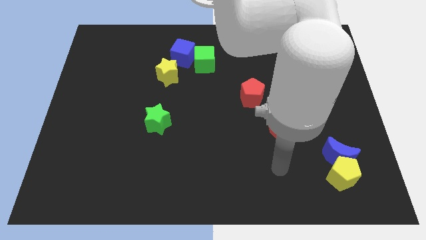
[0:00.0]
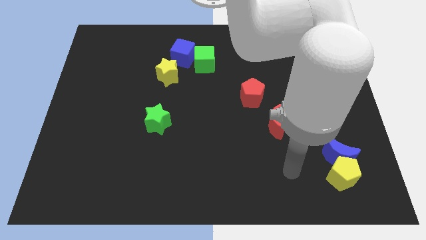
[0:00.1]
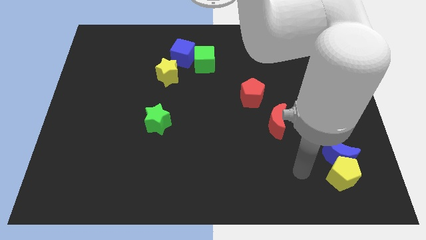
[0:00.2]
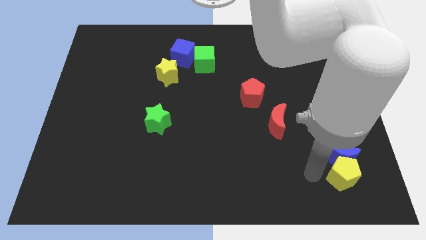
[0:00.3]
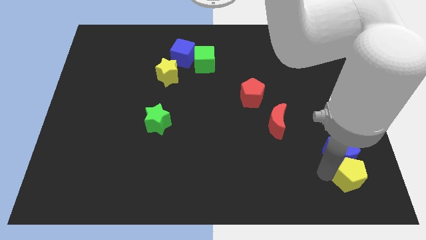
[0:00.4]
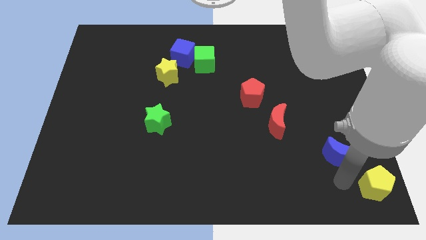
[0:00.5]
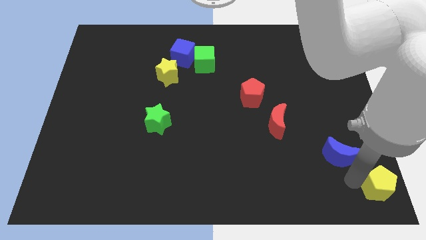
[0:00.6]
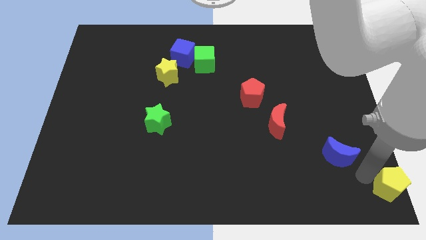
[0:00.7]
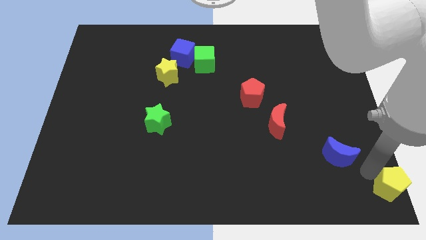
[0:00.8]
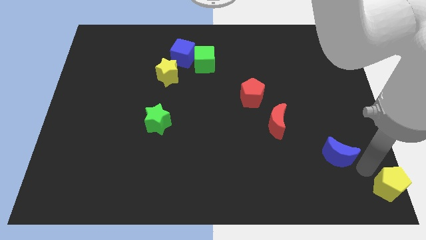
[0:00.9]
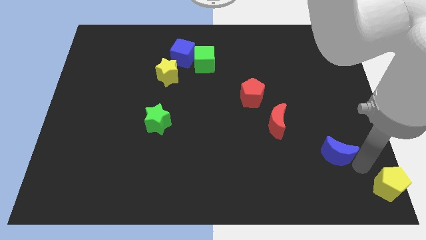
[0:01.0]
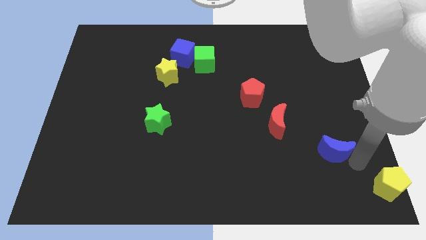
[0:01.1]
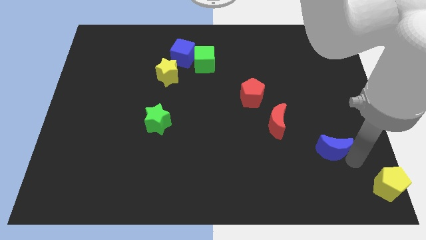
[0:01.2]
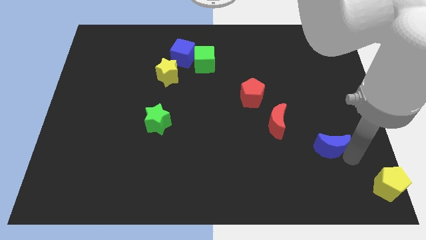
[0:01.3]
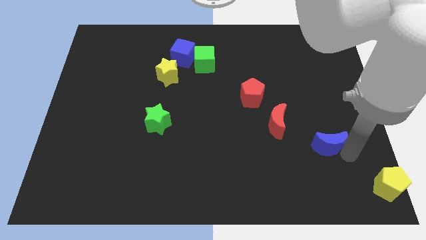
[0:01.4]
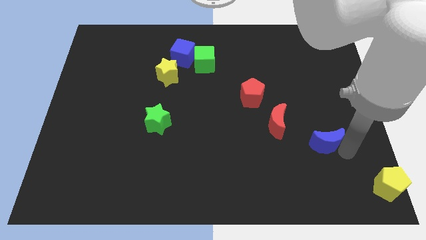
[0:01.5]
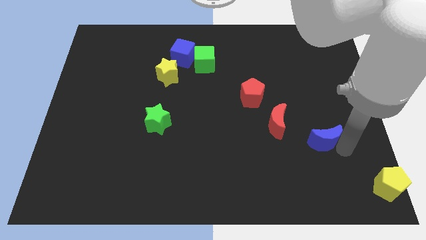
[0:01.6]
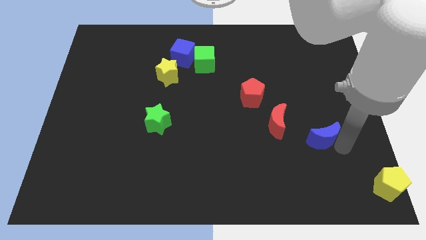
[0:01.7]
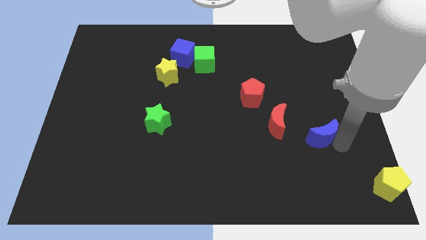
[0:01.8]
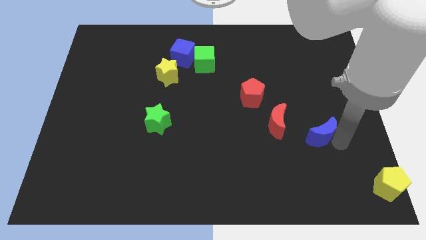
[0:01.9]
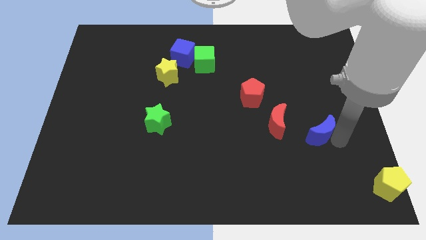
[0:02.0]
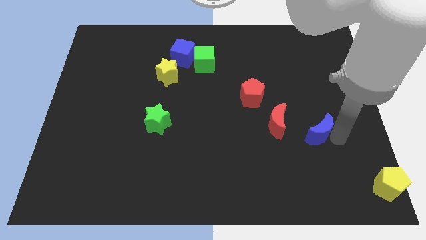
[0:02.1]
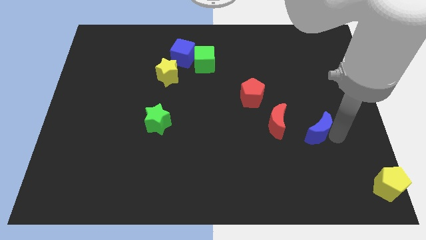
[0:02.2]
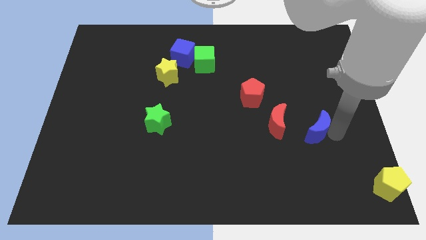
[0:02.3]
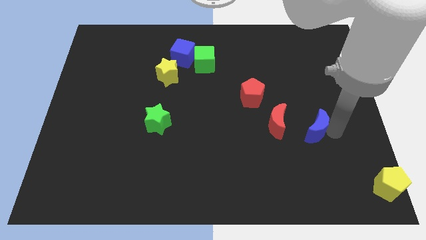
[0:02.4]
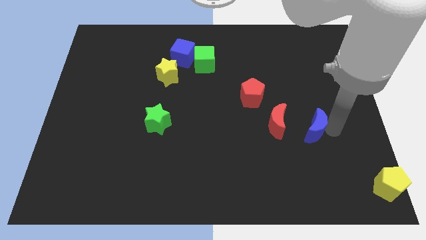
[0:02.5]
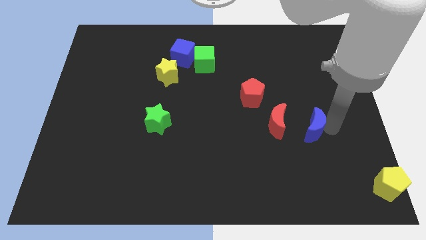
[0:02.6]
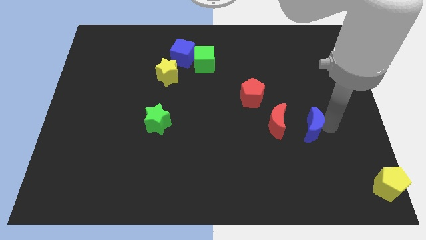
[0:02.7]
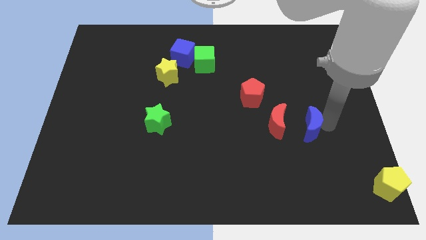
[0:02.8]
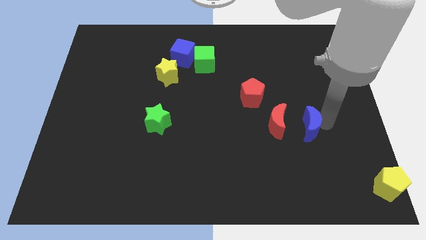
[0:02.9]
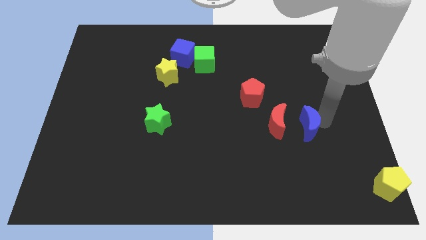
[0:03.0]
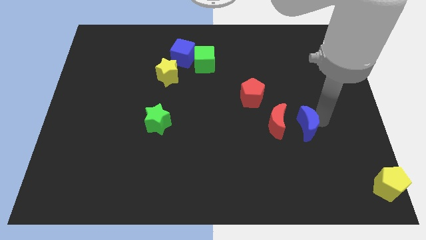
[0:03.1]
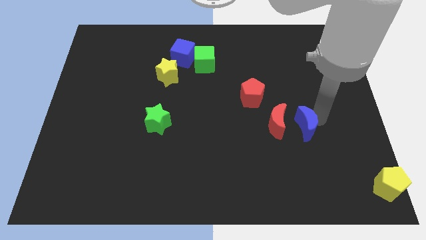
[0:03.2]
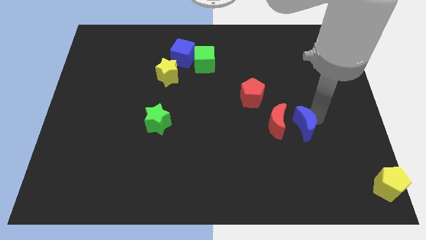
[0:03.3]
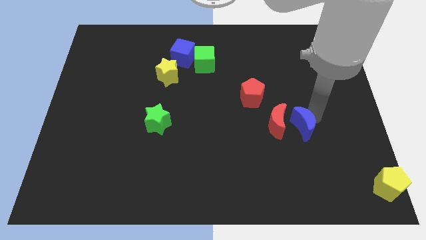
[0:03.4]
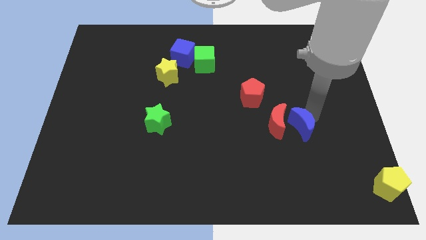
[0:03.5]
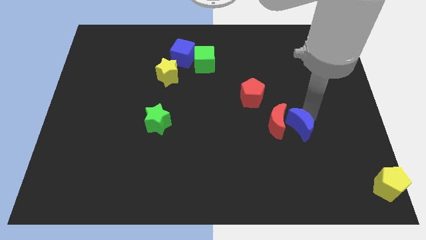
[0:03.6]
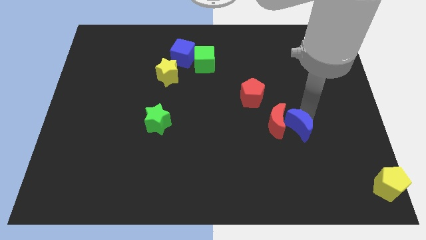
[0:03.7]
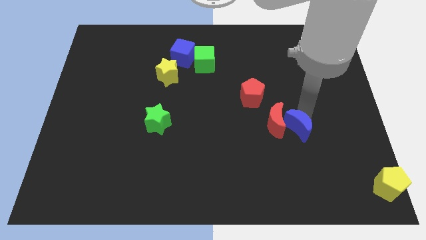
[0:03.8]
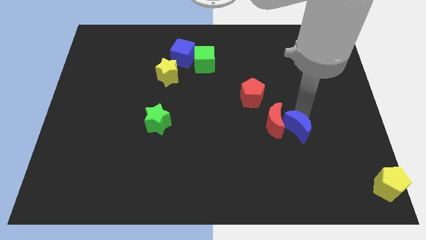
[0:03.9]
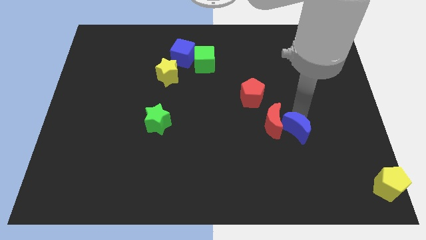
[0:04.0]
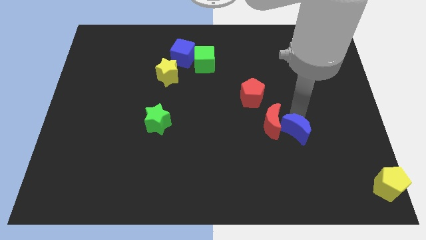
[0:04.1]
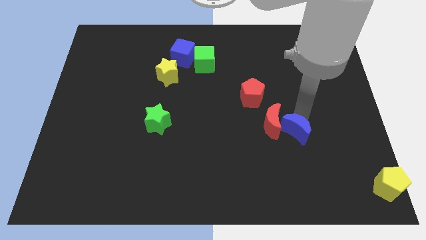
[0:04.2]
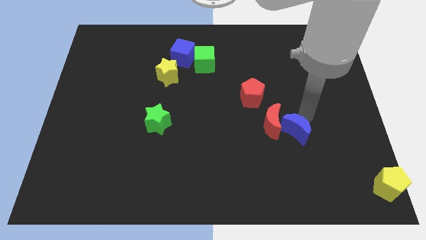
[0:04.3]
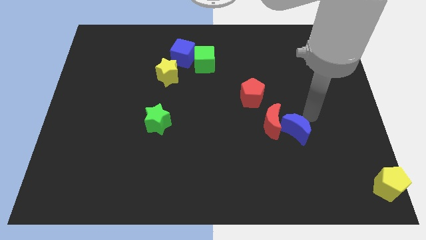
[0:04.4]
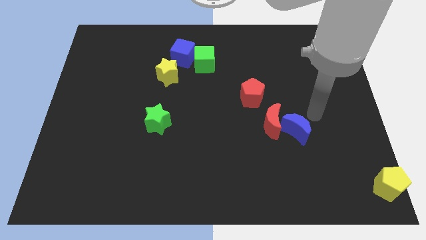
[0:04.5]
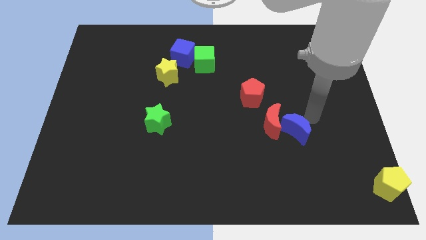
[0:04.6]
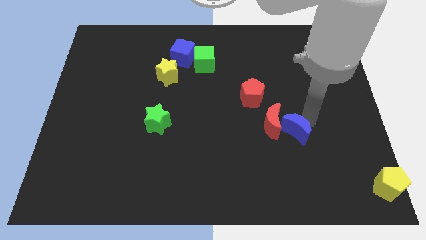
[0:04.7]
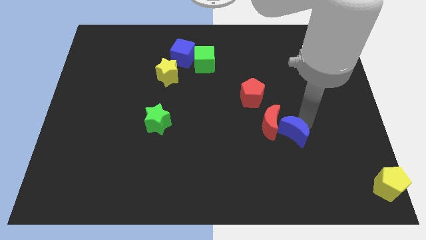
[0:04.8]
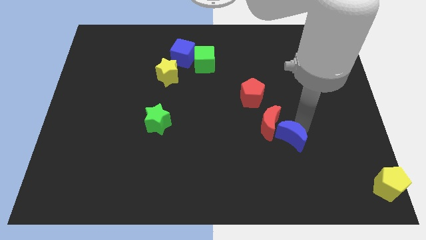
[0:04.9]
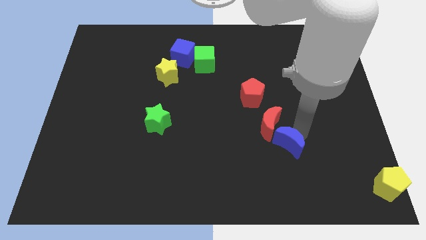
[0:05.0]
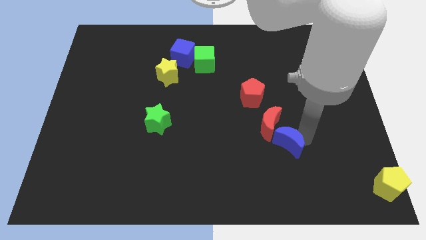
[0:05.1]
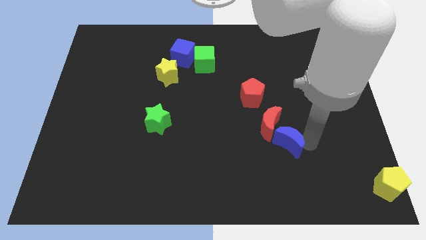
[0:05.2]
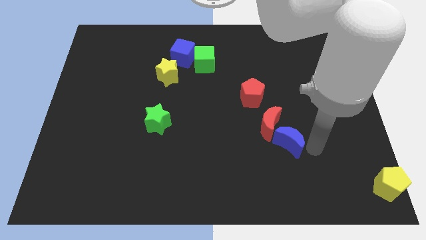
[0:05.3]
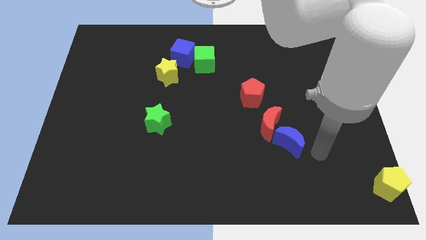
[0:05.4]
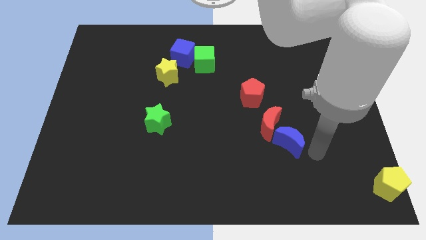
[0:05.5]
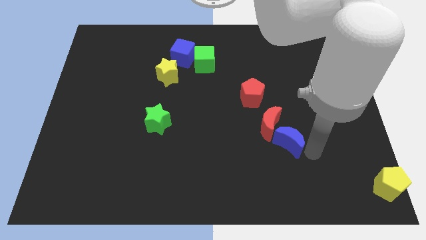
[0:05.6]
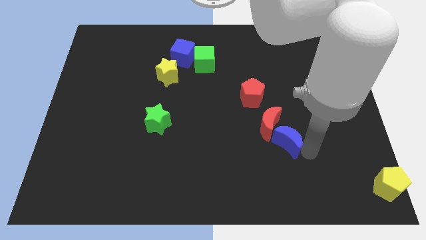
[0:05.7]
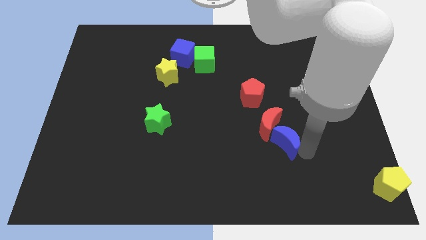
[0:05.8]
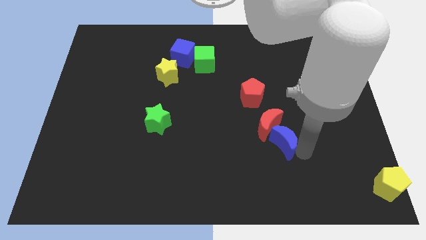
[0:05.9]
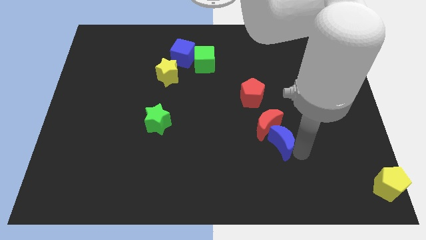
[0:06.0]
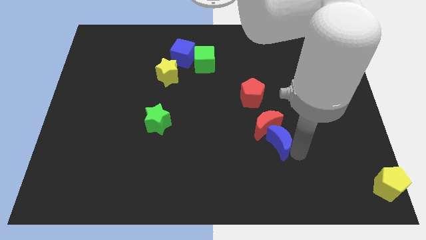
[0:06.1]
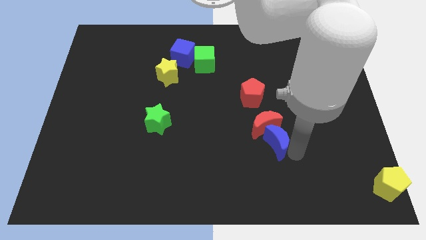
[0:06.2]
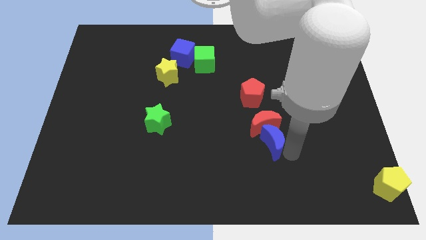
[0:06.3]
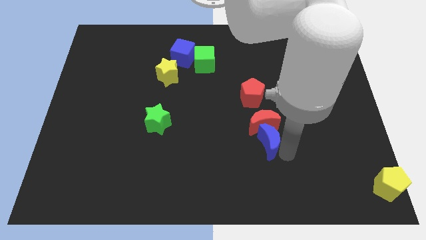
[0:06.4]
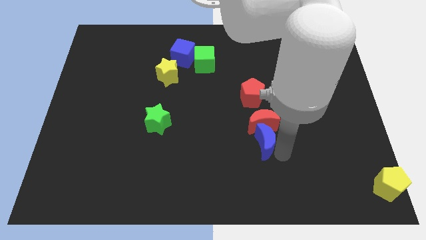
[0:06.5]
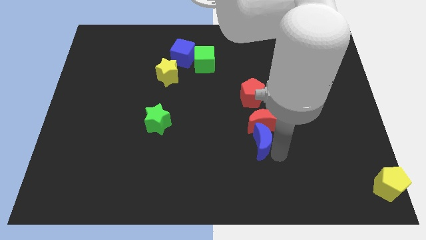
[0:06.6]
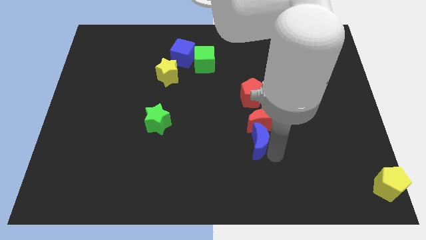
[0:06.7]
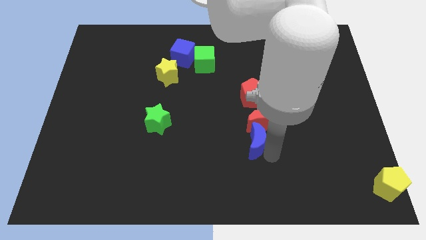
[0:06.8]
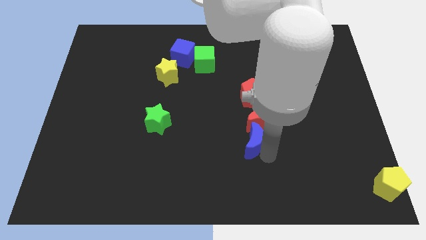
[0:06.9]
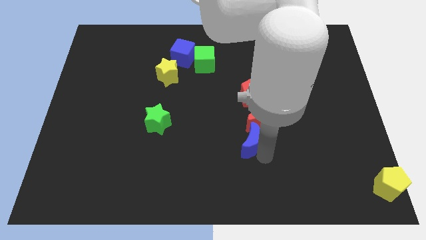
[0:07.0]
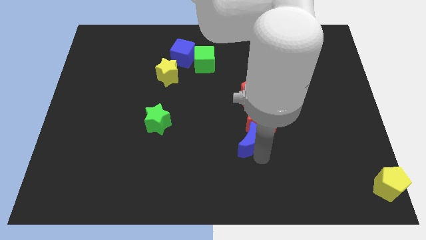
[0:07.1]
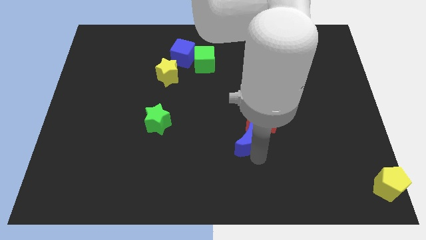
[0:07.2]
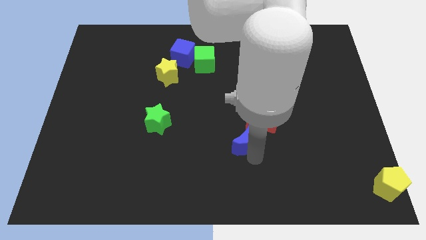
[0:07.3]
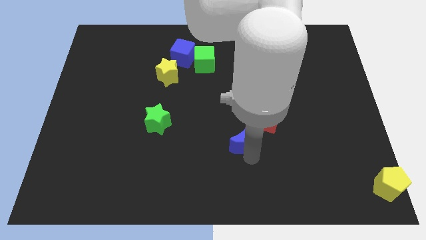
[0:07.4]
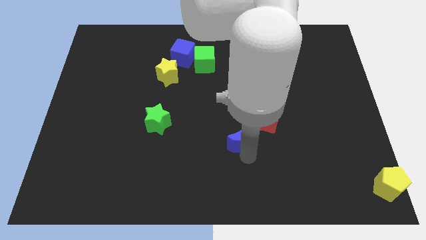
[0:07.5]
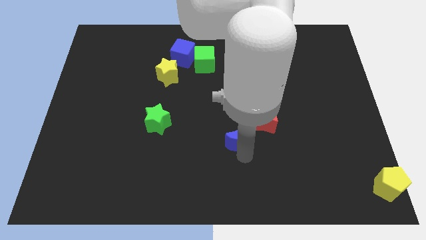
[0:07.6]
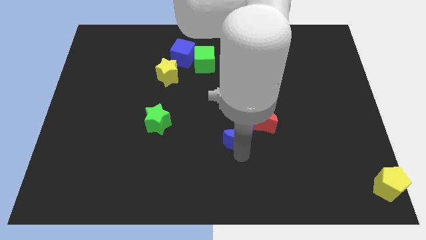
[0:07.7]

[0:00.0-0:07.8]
put the blue moon to the center of the board
